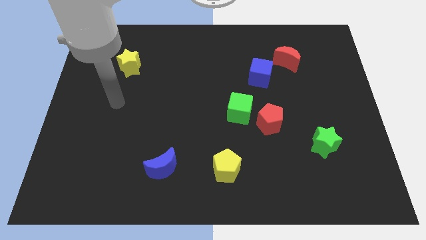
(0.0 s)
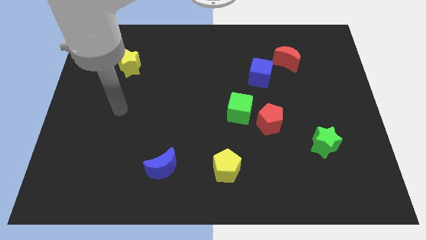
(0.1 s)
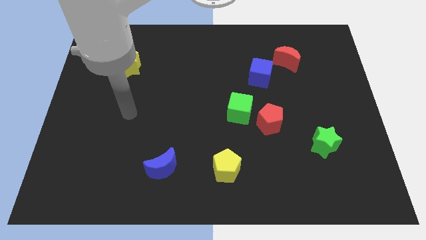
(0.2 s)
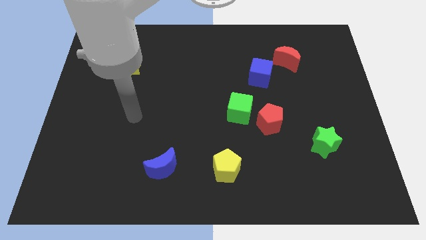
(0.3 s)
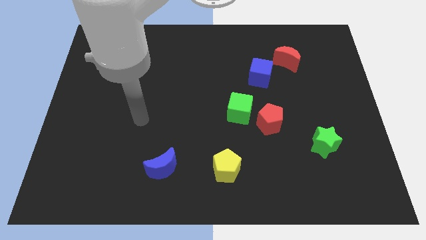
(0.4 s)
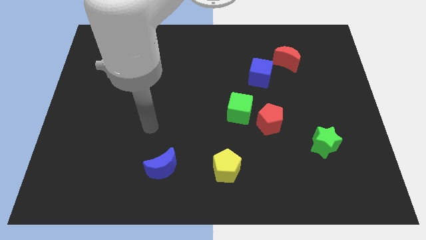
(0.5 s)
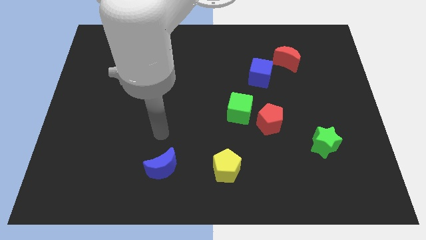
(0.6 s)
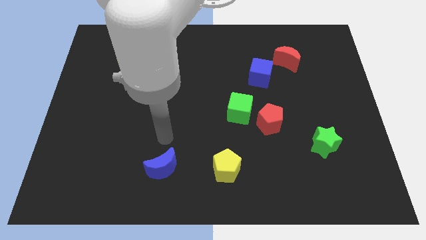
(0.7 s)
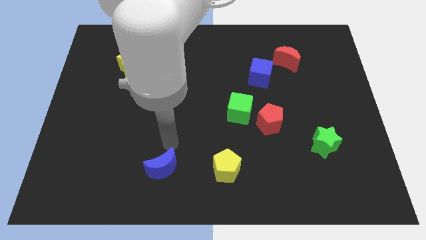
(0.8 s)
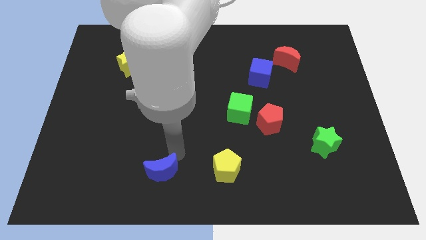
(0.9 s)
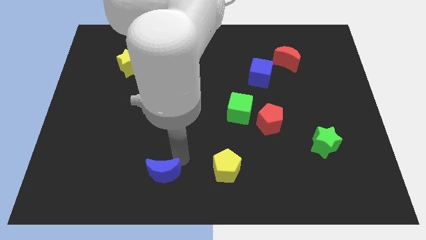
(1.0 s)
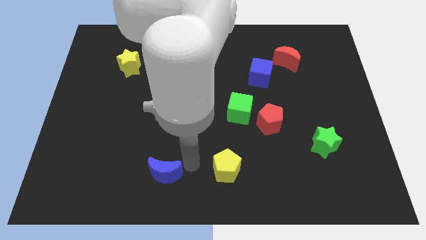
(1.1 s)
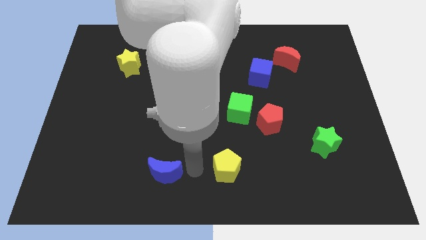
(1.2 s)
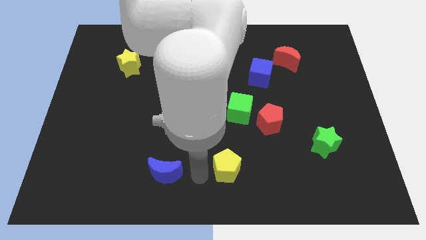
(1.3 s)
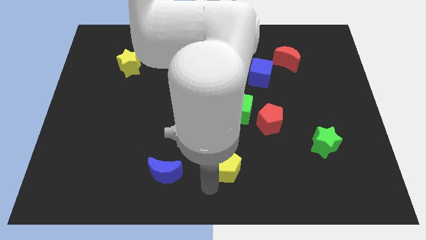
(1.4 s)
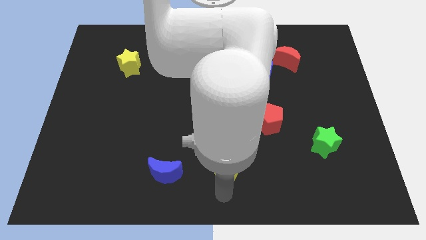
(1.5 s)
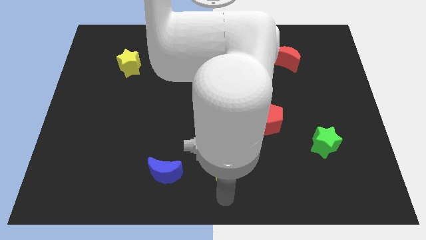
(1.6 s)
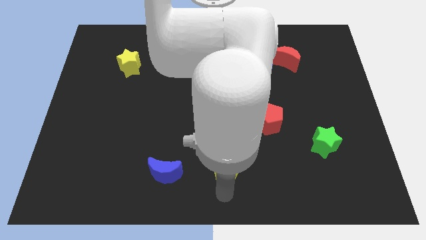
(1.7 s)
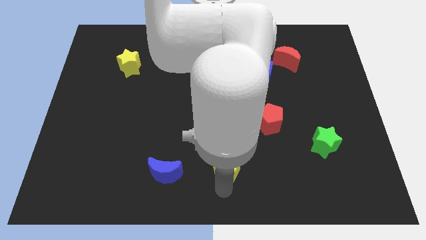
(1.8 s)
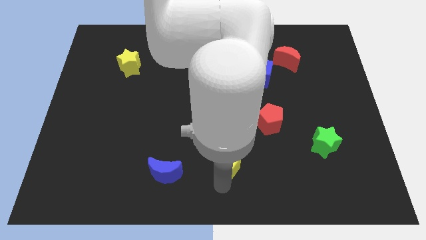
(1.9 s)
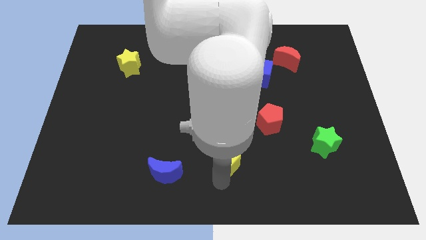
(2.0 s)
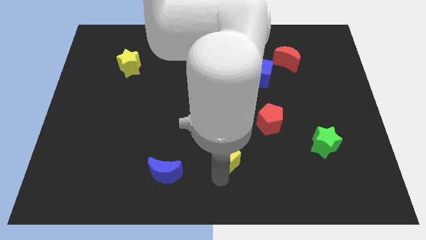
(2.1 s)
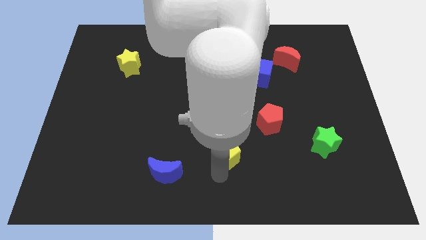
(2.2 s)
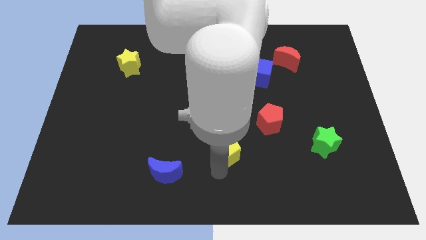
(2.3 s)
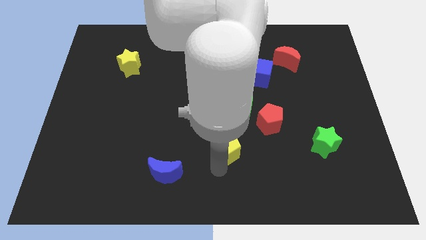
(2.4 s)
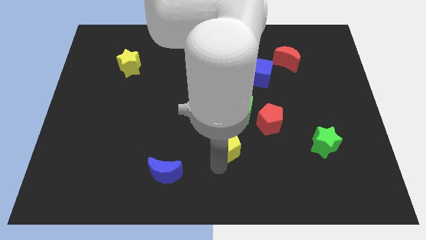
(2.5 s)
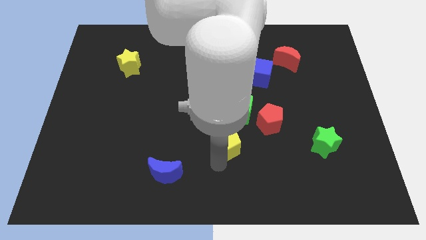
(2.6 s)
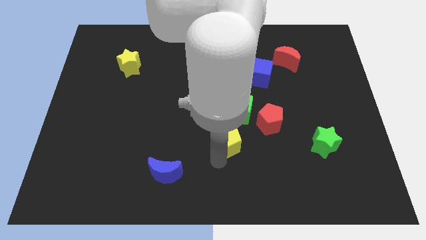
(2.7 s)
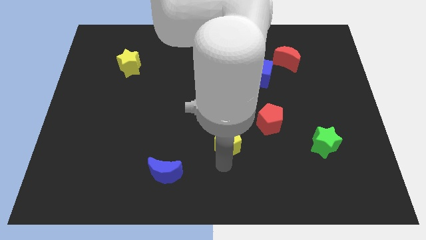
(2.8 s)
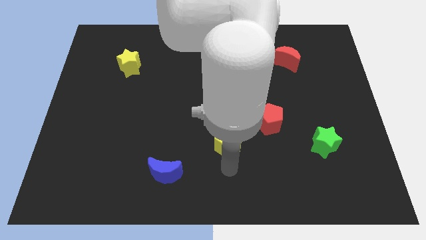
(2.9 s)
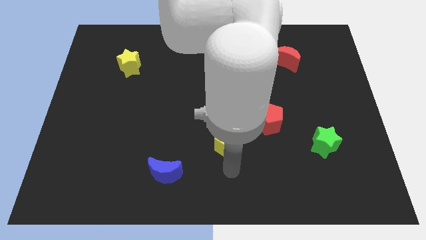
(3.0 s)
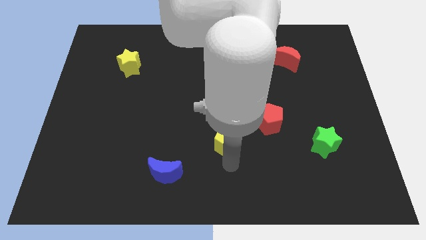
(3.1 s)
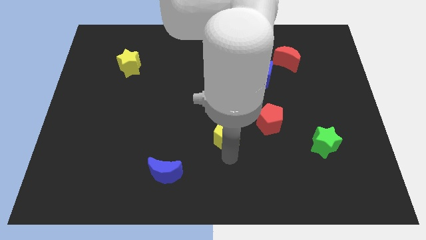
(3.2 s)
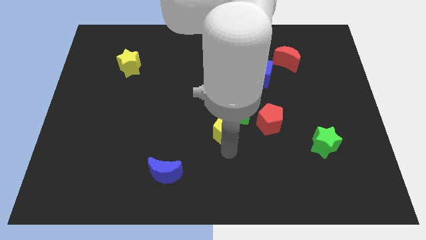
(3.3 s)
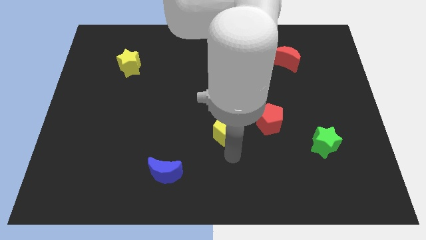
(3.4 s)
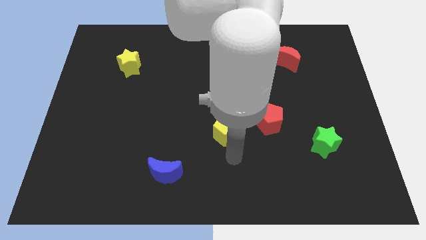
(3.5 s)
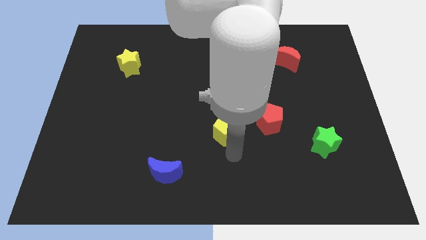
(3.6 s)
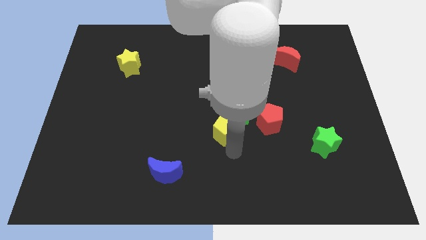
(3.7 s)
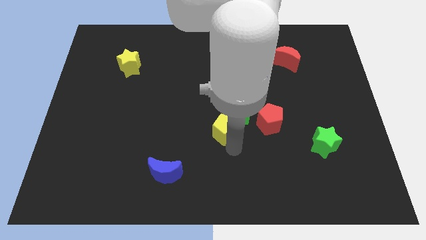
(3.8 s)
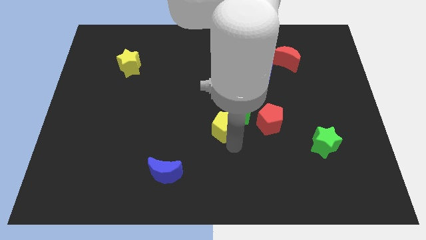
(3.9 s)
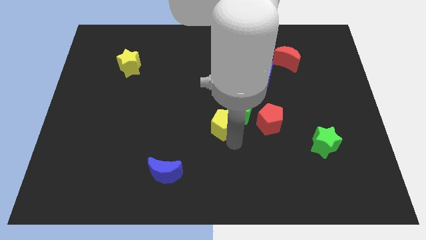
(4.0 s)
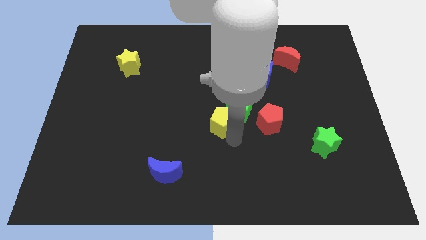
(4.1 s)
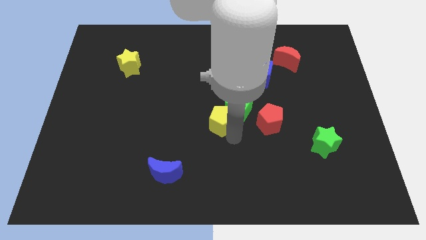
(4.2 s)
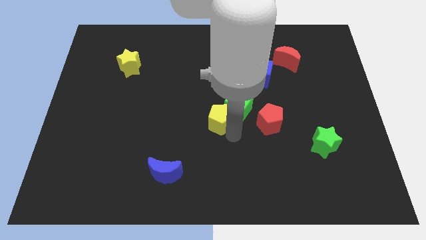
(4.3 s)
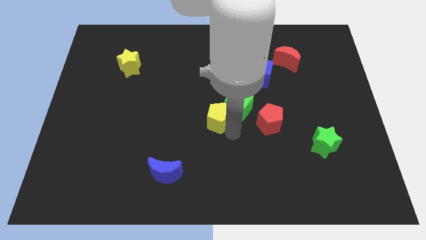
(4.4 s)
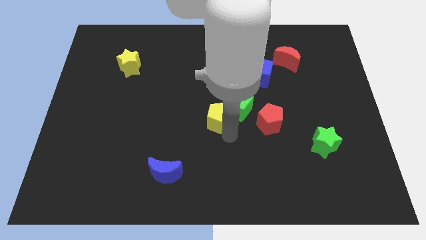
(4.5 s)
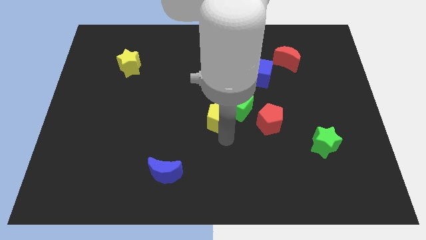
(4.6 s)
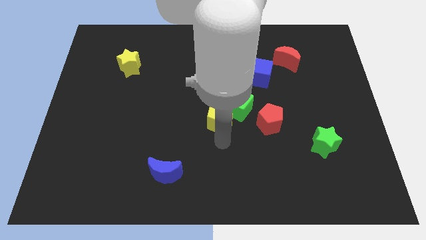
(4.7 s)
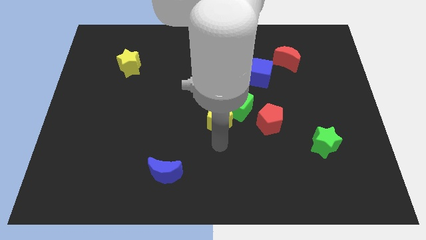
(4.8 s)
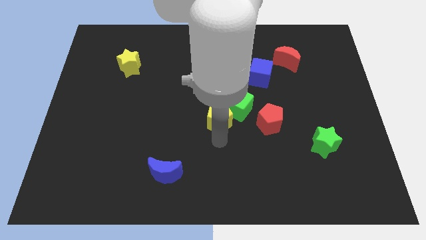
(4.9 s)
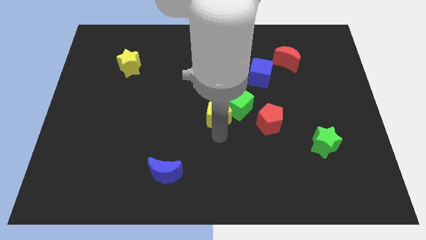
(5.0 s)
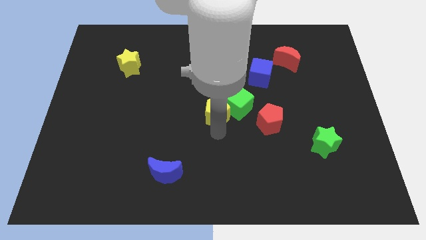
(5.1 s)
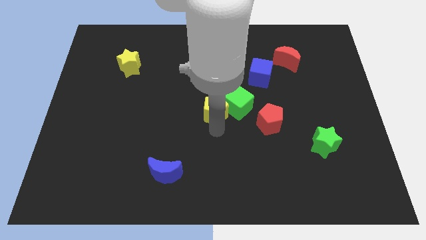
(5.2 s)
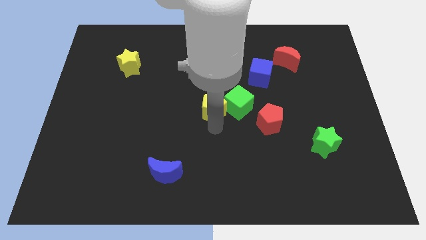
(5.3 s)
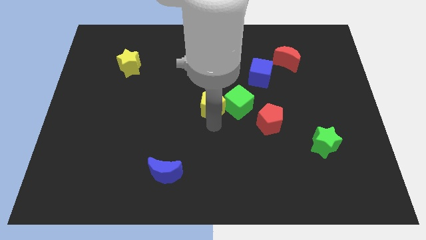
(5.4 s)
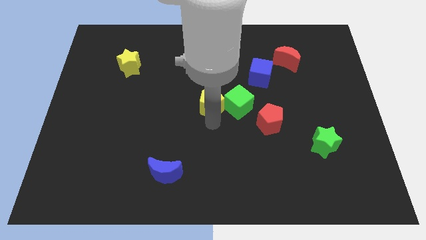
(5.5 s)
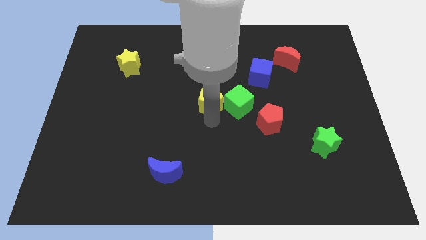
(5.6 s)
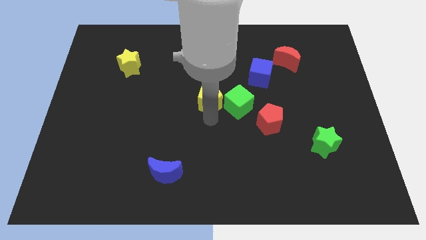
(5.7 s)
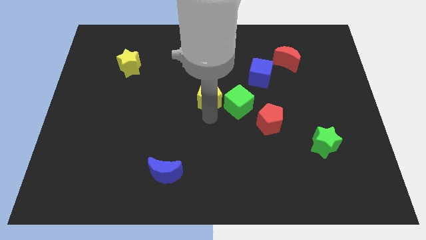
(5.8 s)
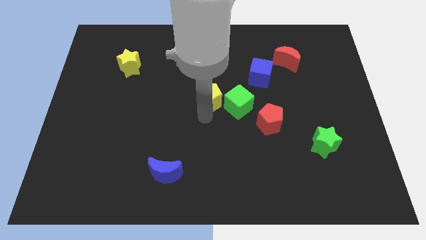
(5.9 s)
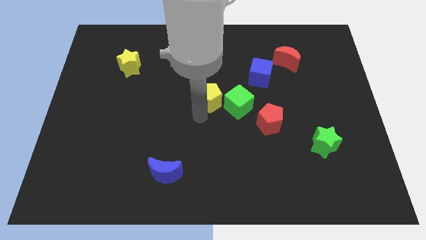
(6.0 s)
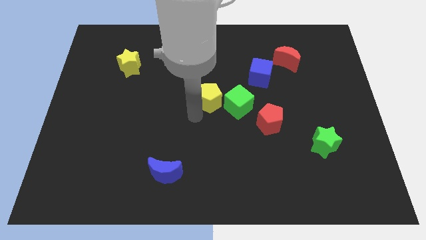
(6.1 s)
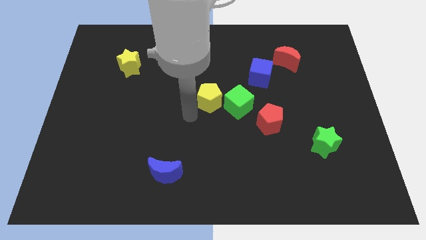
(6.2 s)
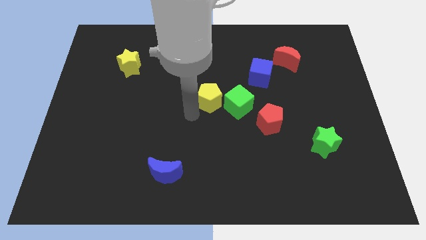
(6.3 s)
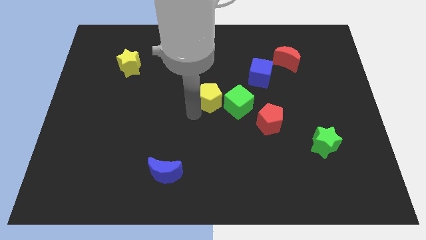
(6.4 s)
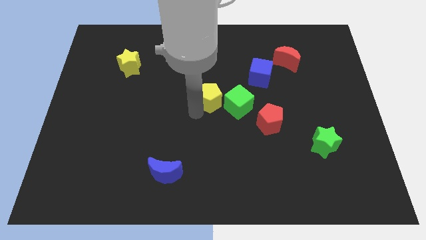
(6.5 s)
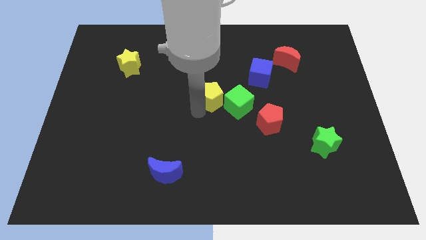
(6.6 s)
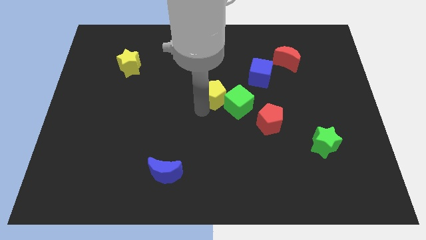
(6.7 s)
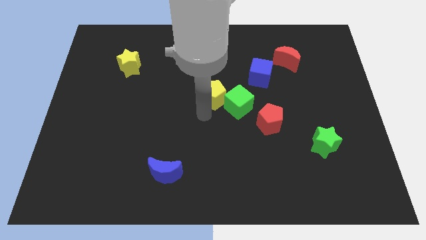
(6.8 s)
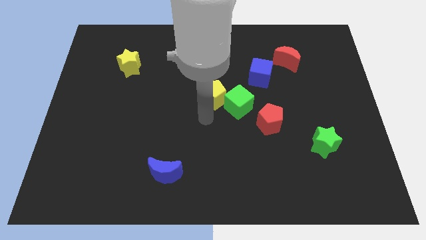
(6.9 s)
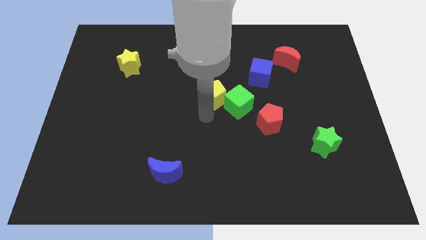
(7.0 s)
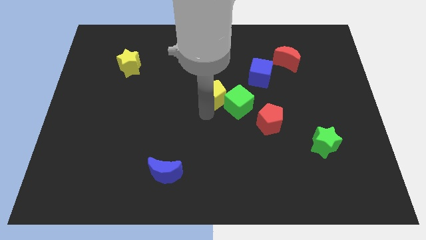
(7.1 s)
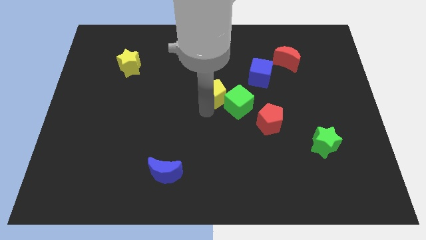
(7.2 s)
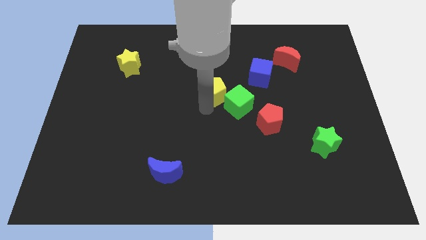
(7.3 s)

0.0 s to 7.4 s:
push the yellow pentagon upwards

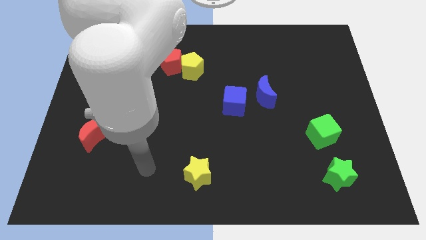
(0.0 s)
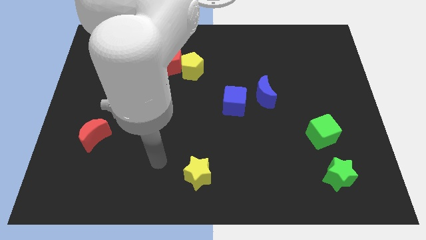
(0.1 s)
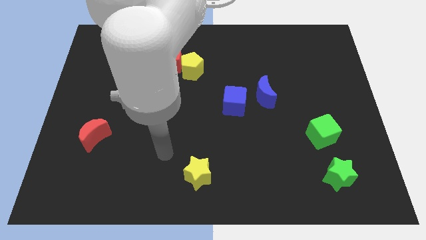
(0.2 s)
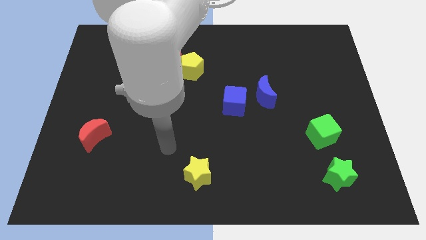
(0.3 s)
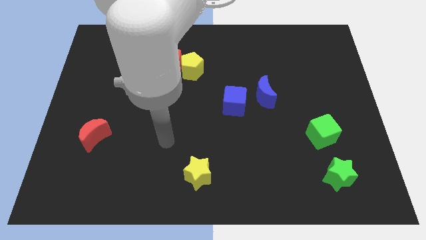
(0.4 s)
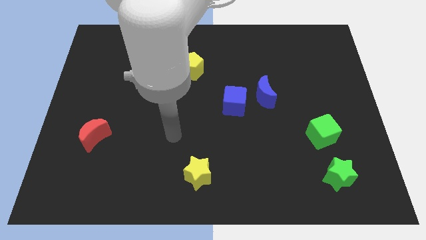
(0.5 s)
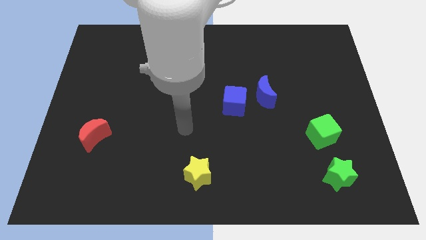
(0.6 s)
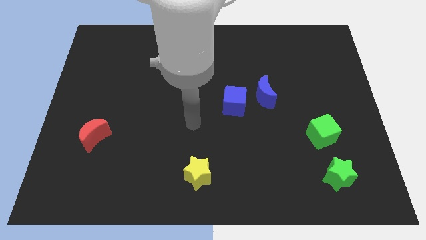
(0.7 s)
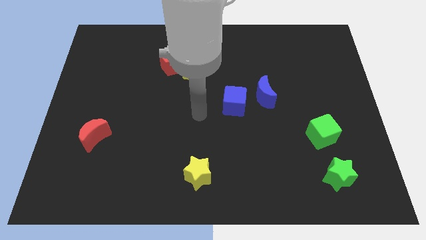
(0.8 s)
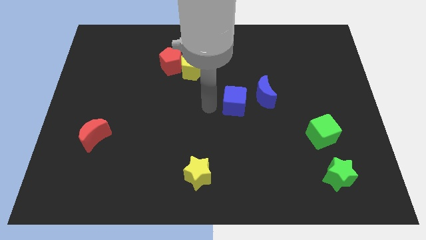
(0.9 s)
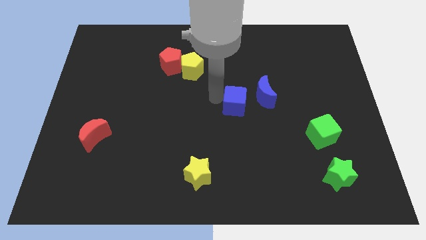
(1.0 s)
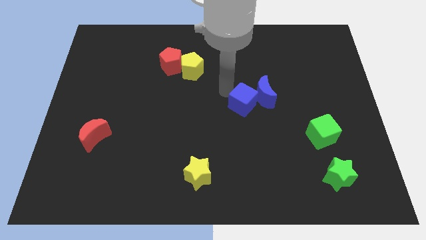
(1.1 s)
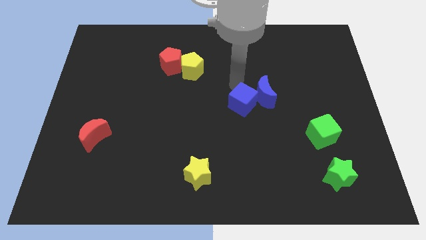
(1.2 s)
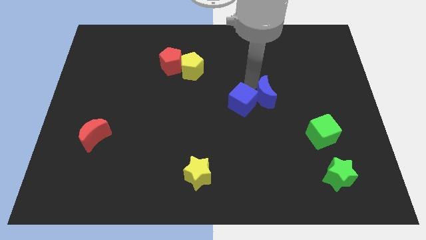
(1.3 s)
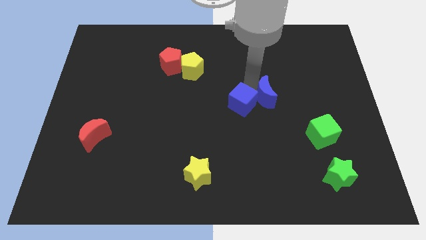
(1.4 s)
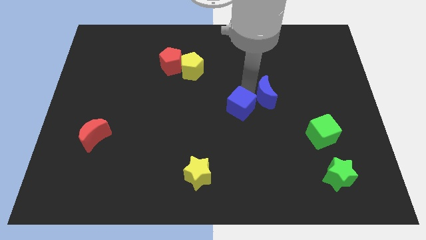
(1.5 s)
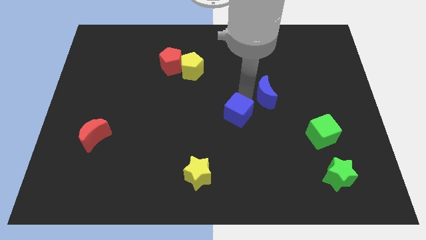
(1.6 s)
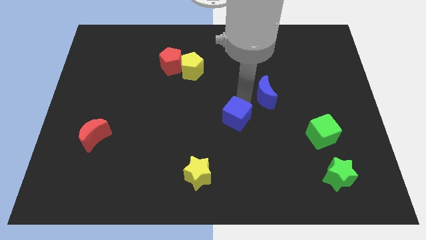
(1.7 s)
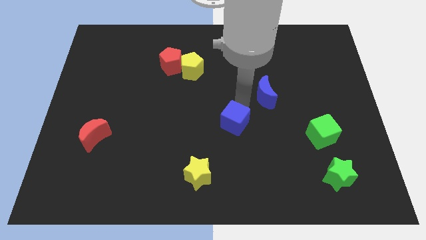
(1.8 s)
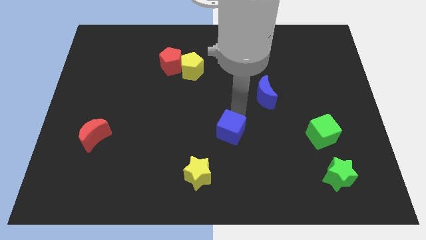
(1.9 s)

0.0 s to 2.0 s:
slide the blue cube somewhat downwards
